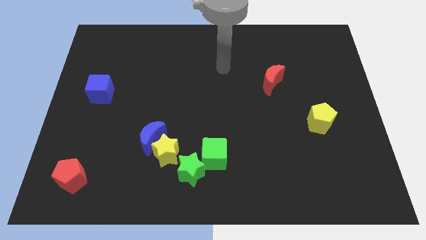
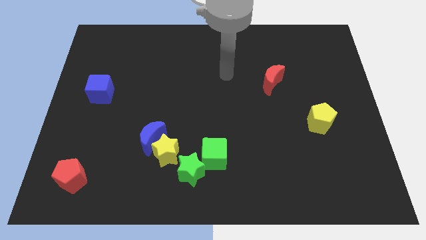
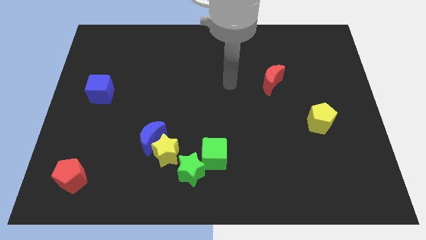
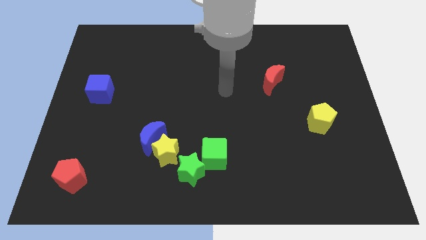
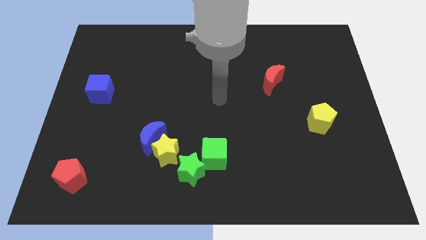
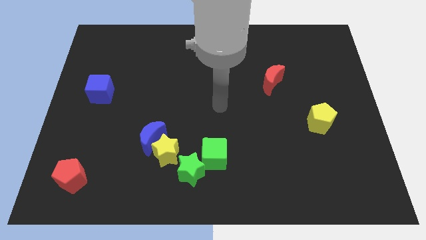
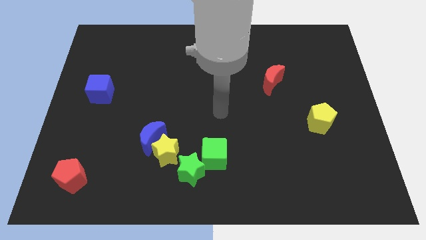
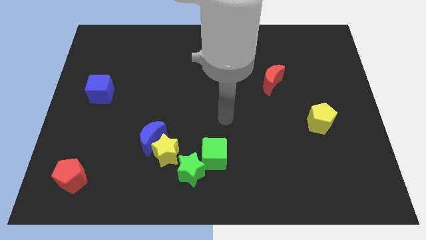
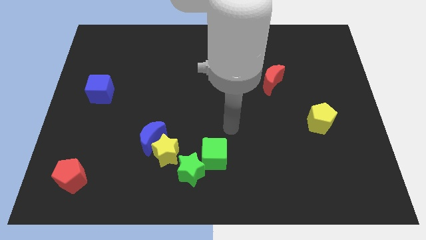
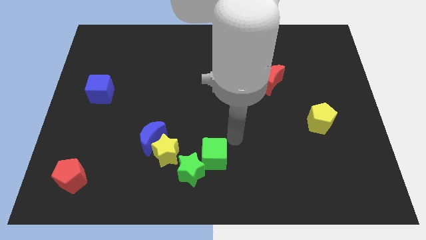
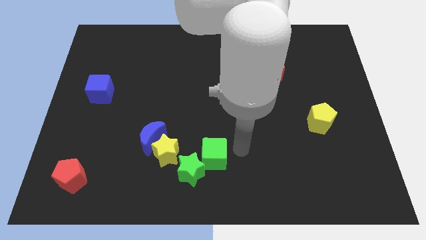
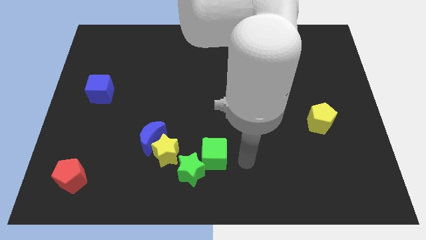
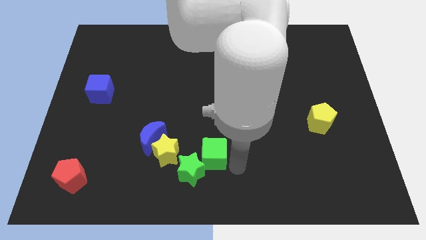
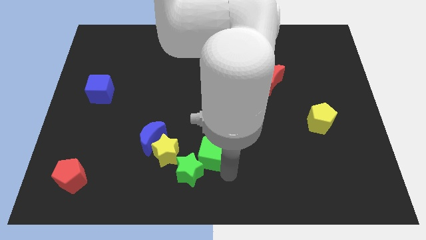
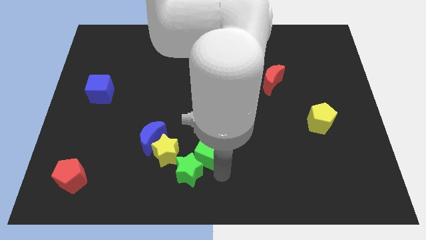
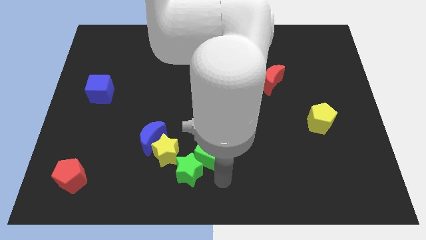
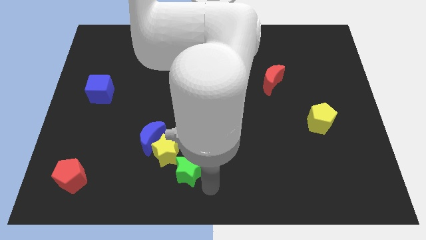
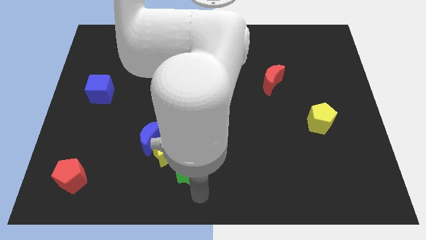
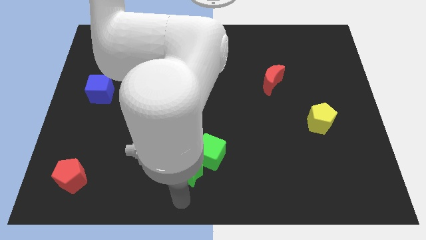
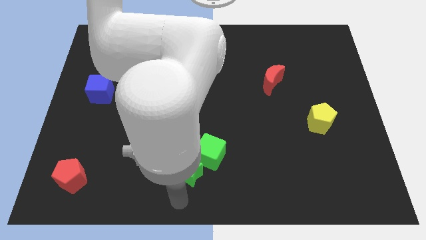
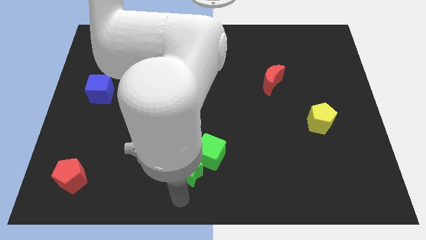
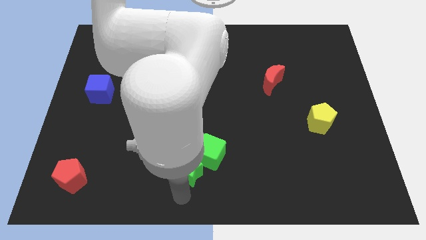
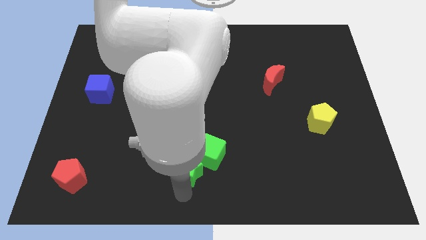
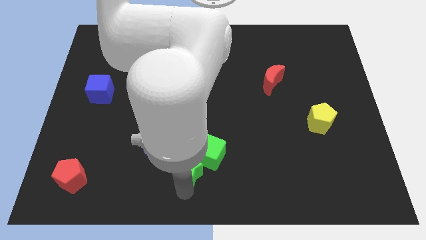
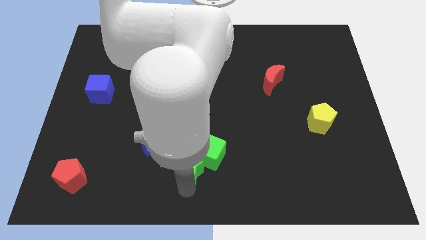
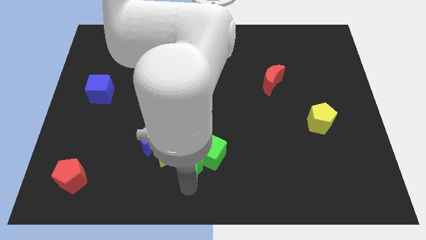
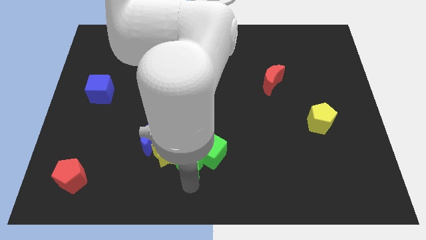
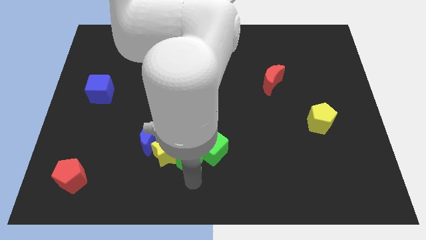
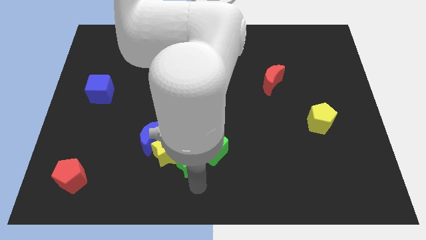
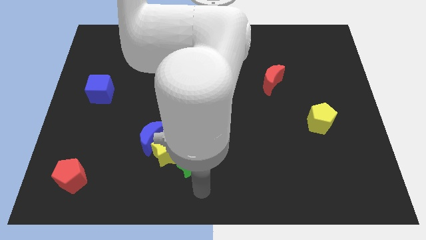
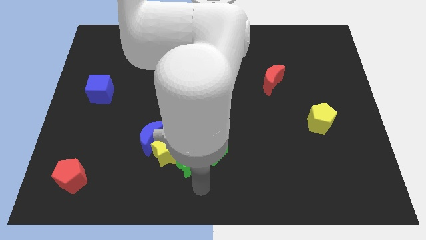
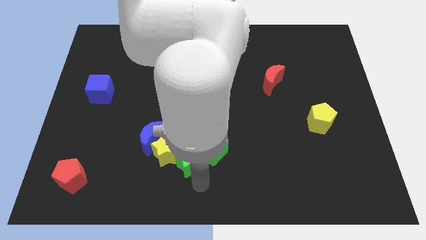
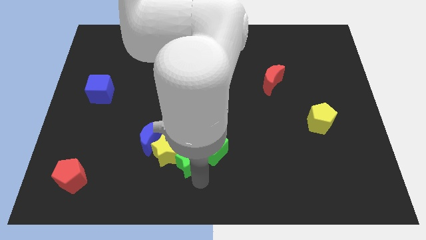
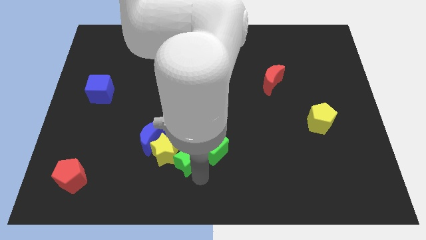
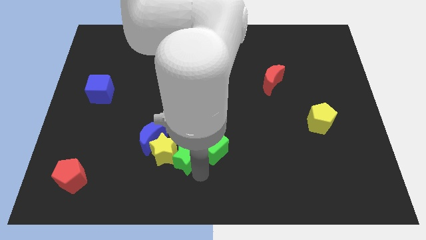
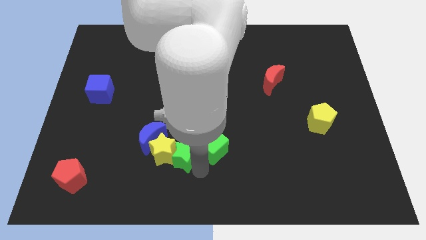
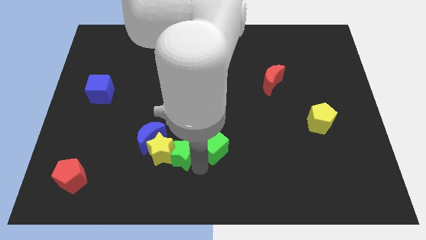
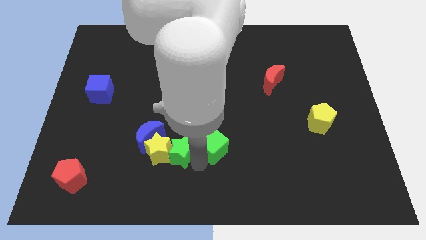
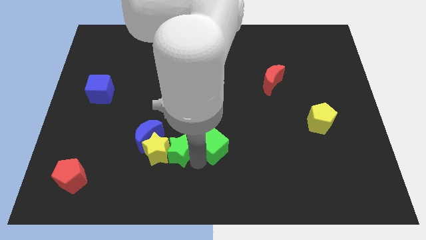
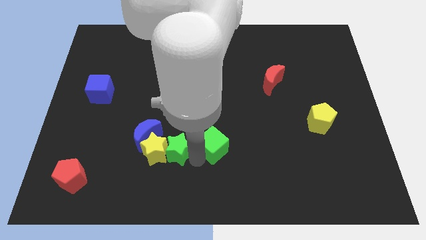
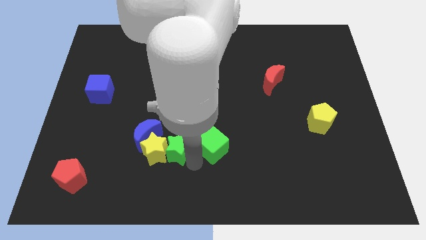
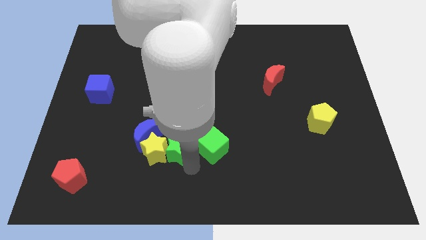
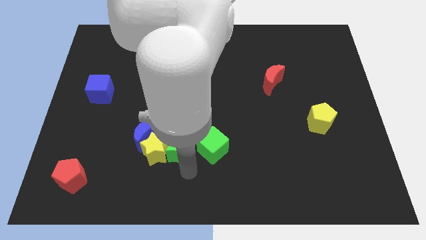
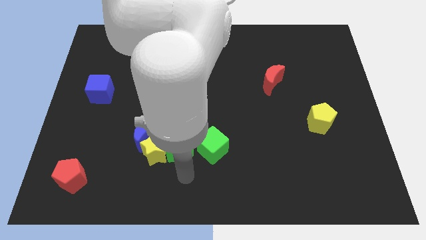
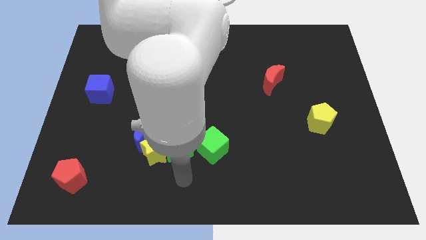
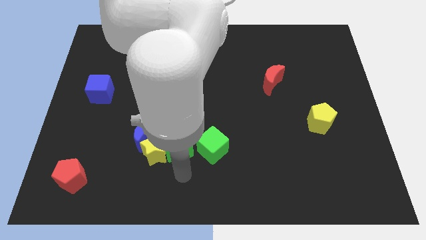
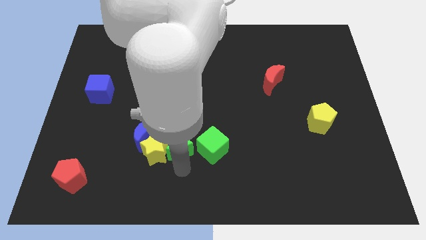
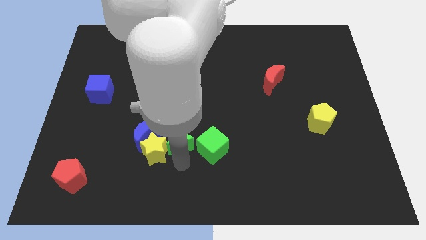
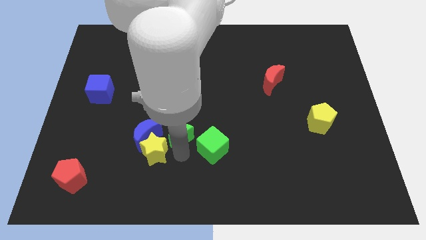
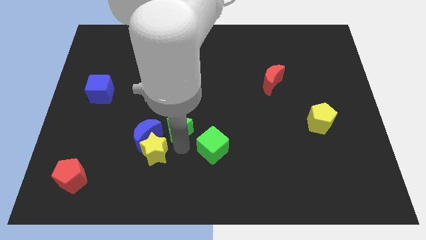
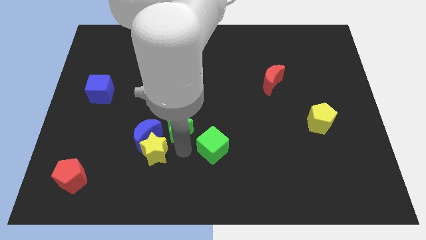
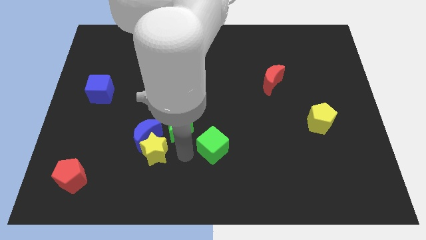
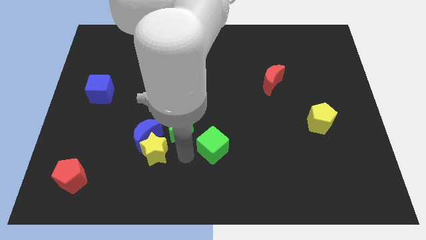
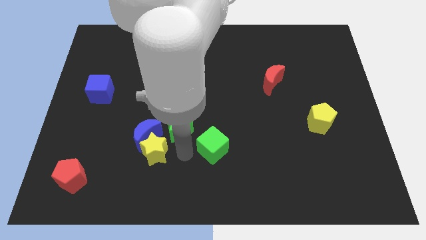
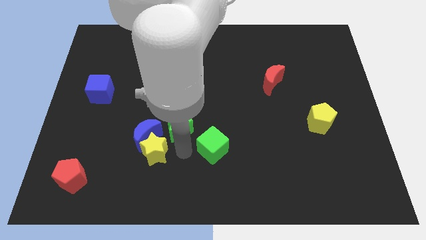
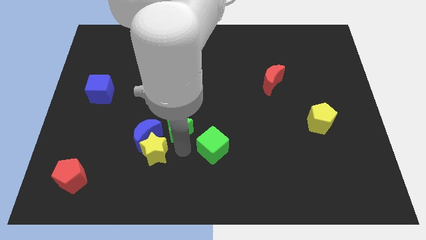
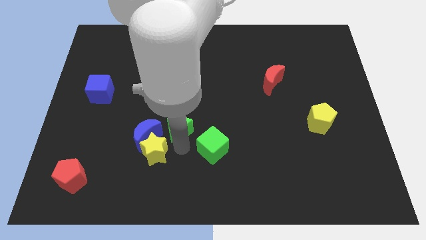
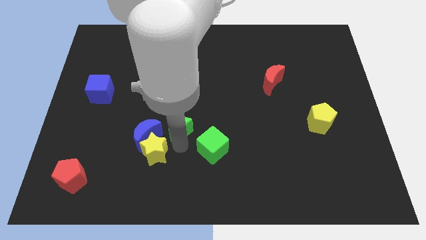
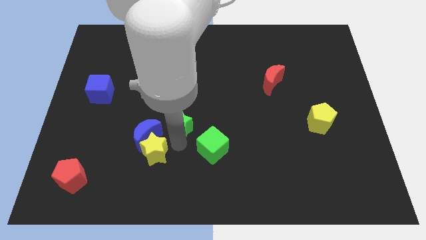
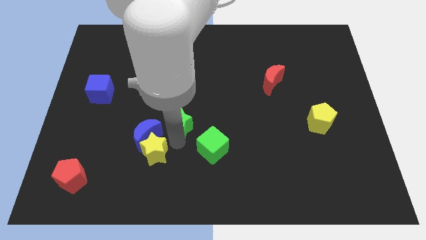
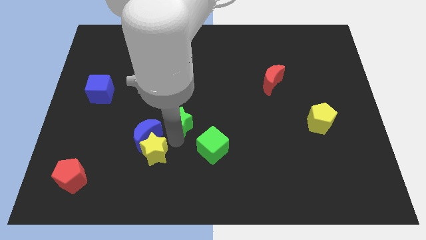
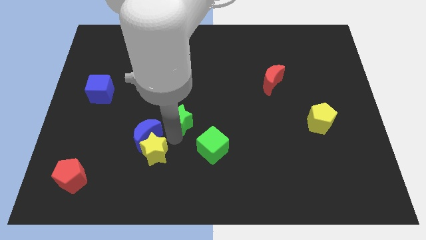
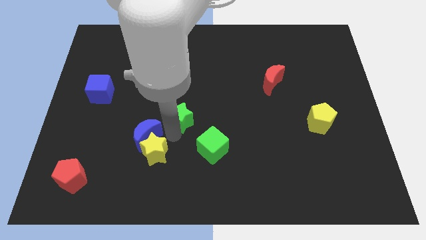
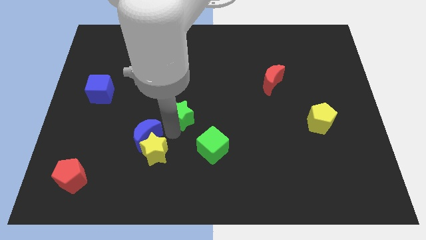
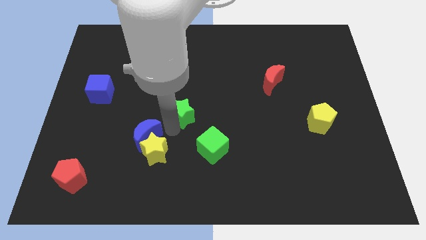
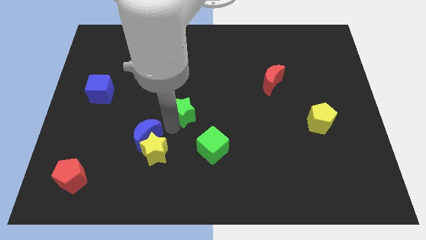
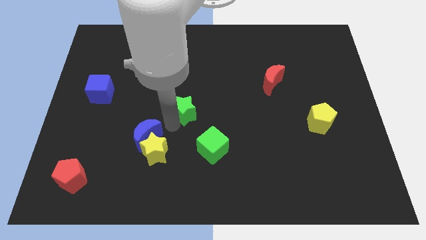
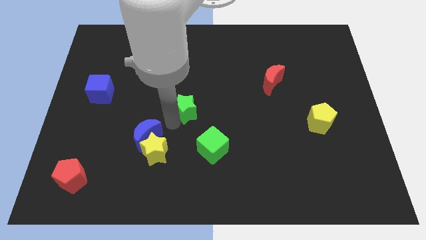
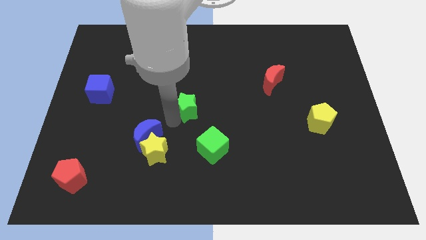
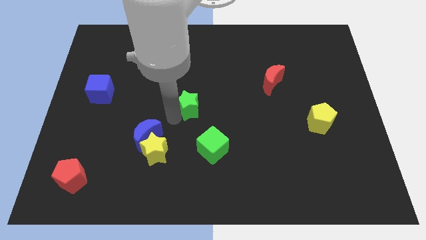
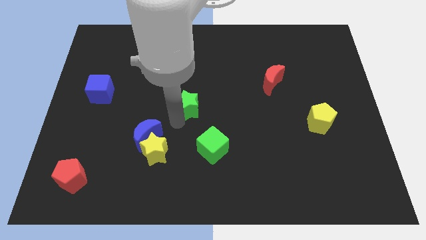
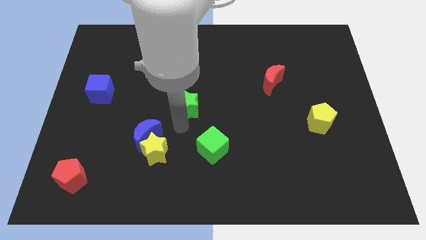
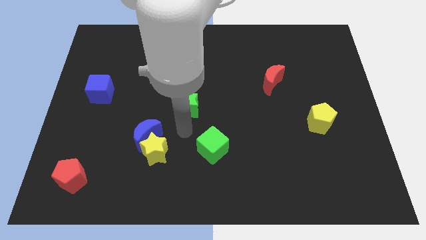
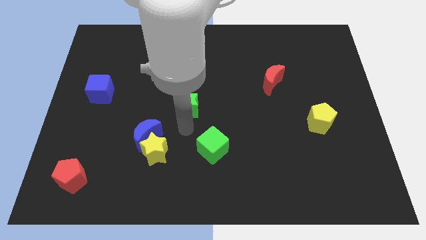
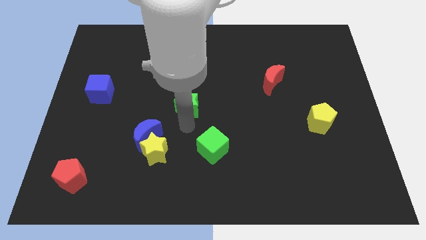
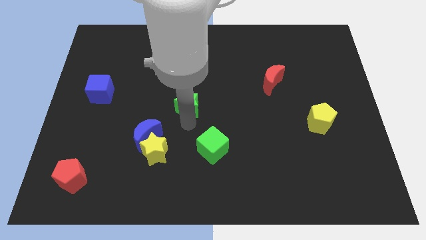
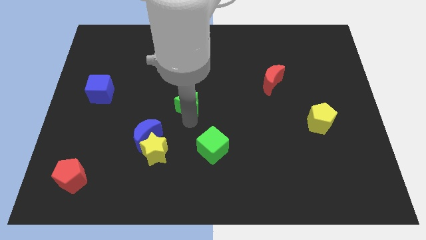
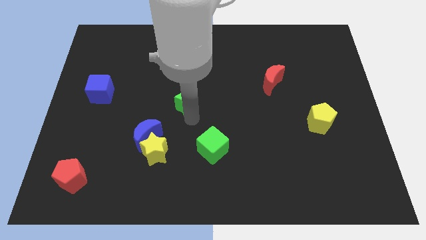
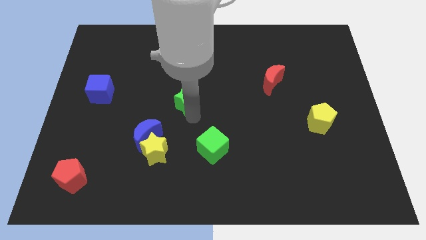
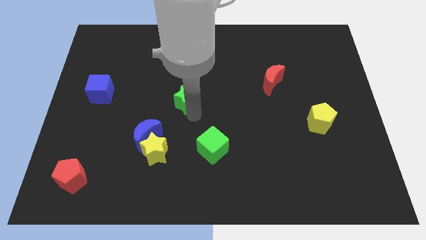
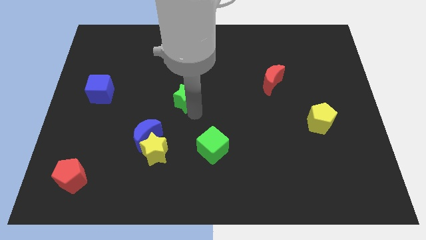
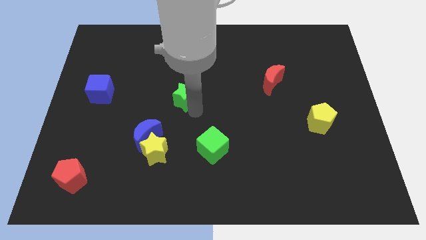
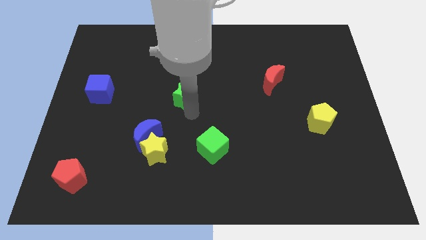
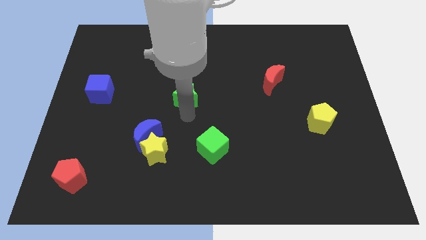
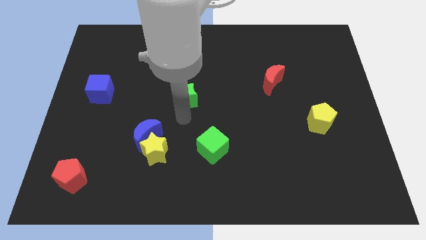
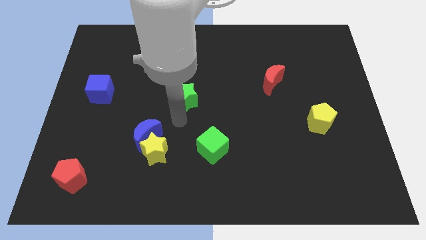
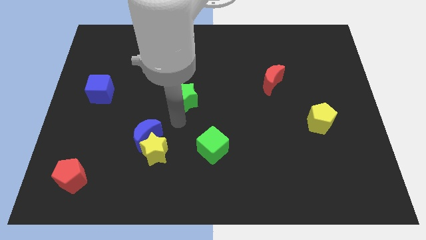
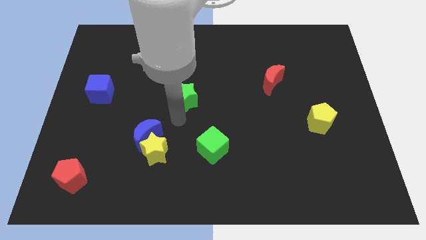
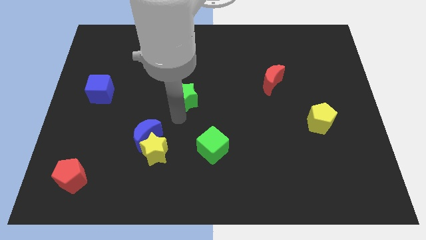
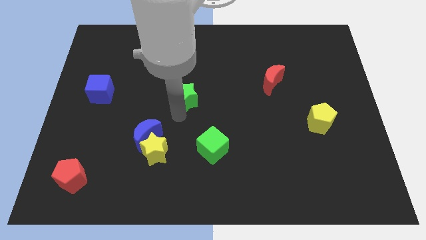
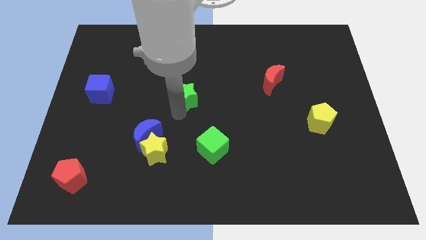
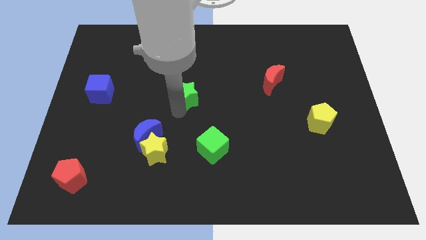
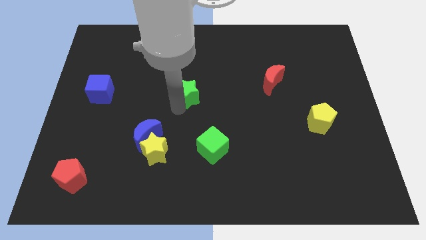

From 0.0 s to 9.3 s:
push the green star upwards
